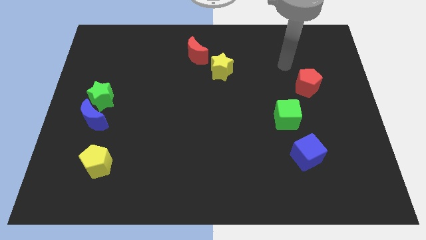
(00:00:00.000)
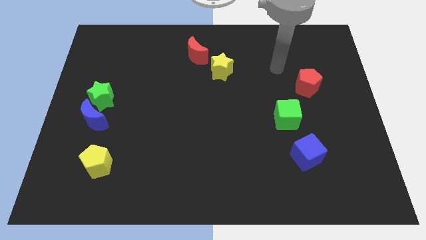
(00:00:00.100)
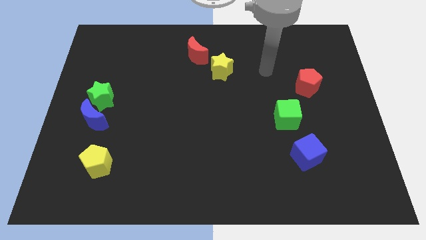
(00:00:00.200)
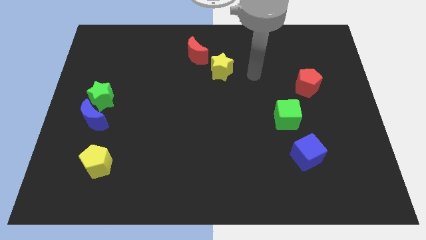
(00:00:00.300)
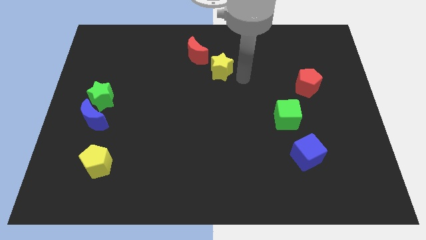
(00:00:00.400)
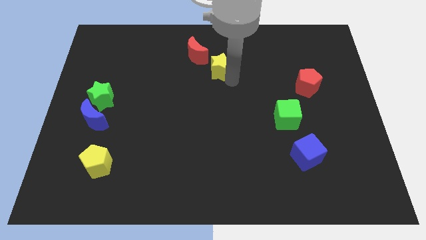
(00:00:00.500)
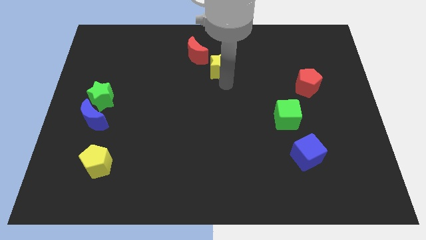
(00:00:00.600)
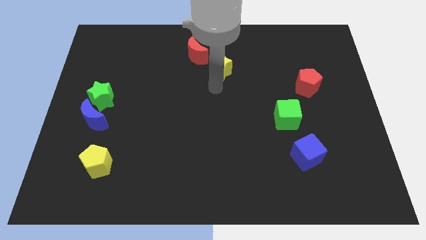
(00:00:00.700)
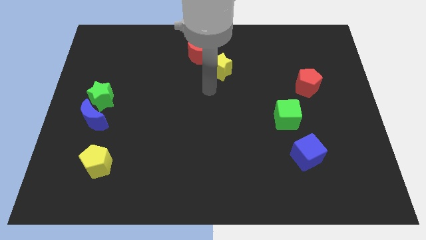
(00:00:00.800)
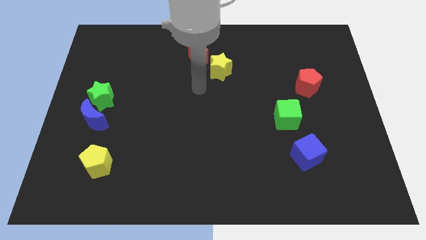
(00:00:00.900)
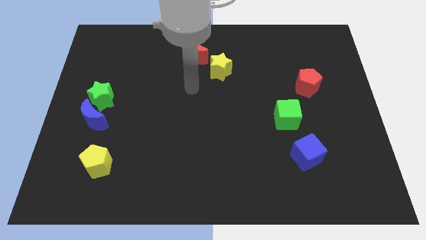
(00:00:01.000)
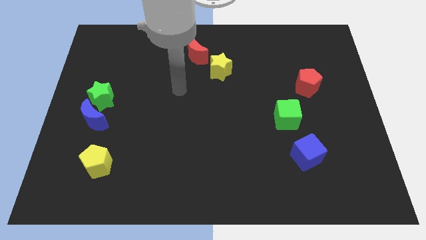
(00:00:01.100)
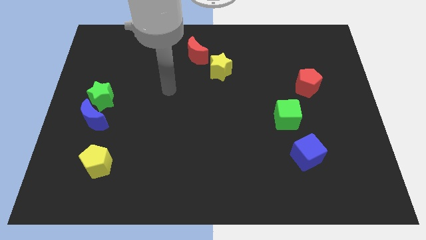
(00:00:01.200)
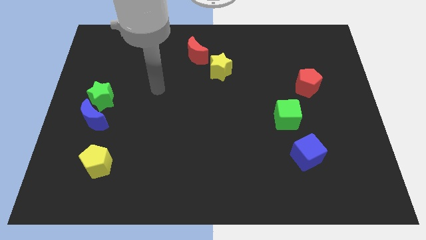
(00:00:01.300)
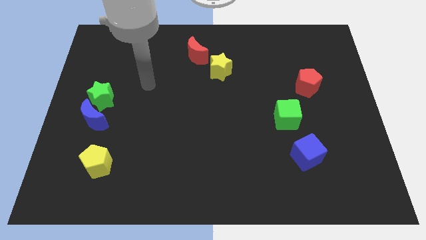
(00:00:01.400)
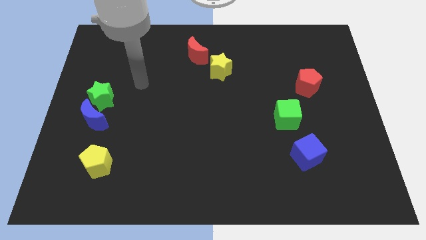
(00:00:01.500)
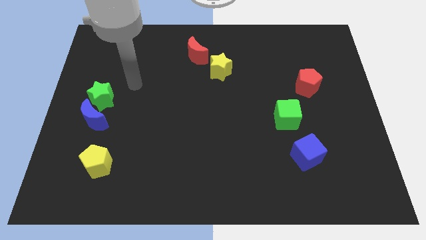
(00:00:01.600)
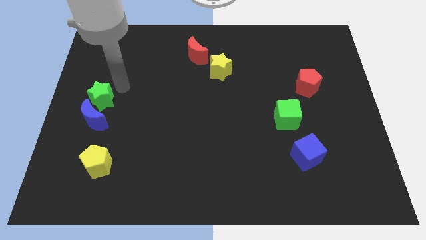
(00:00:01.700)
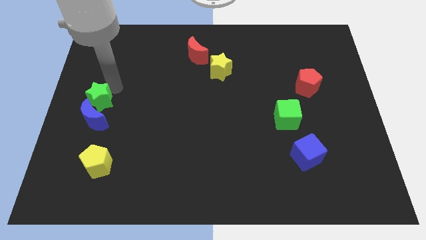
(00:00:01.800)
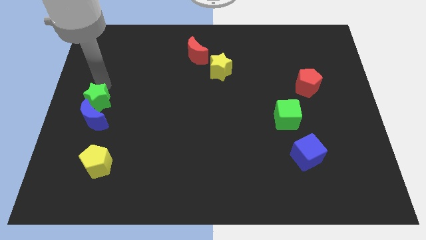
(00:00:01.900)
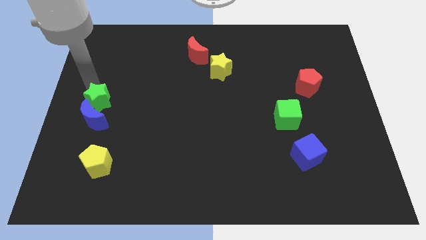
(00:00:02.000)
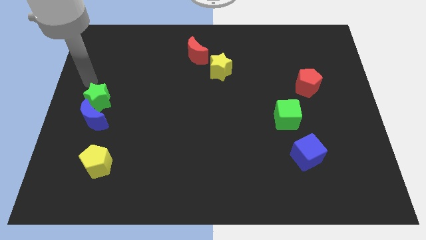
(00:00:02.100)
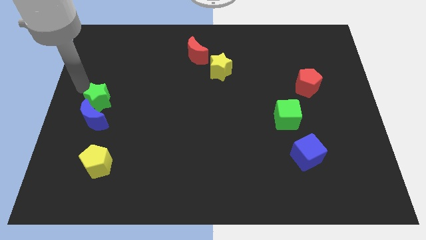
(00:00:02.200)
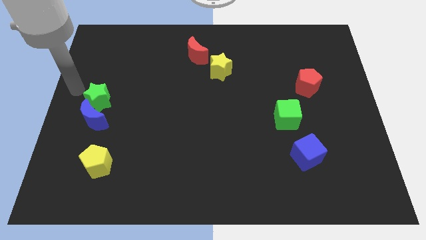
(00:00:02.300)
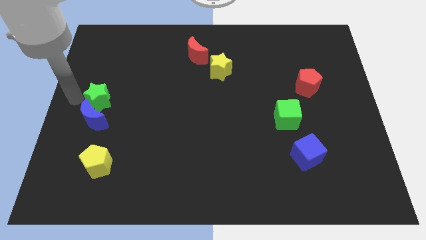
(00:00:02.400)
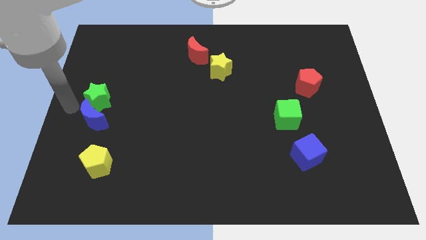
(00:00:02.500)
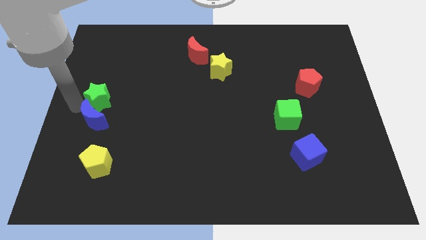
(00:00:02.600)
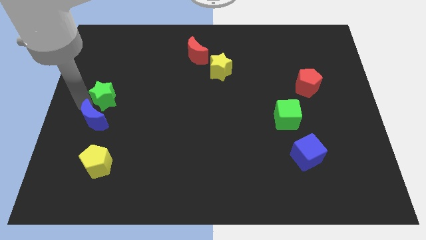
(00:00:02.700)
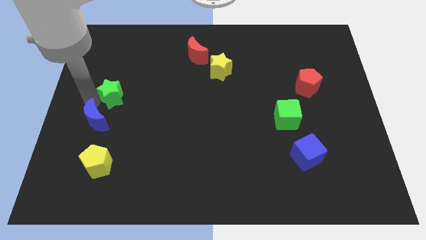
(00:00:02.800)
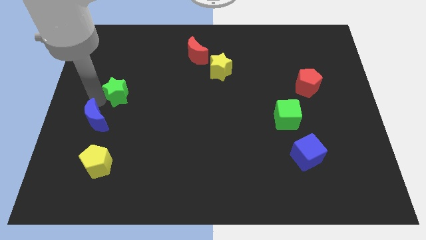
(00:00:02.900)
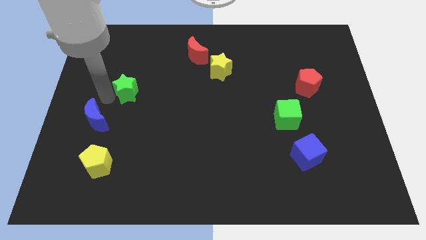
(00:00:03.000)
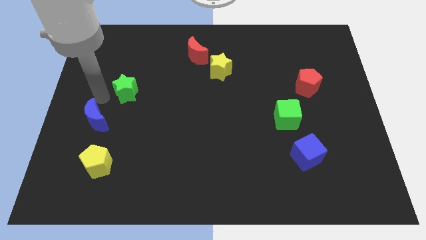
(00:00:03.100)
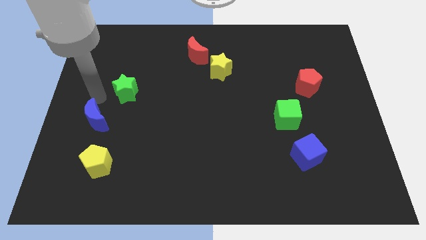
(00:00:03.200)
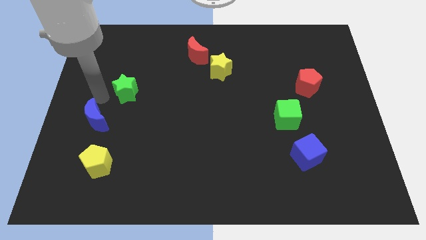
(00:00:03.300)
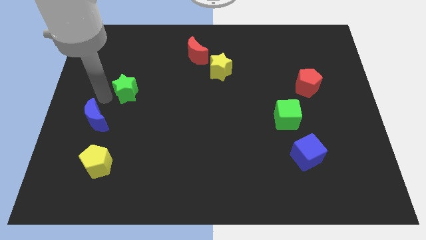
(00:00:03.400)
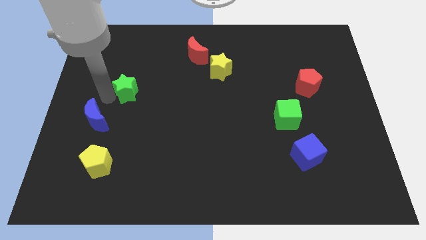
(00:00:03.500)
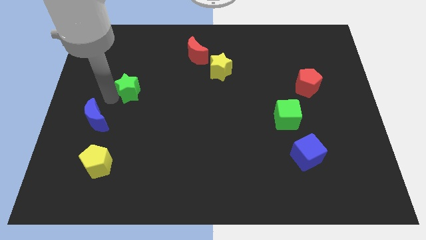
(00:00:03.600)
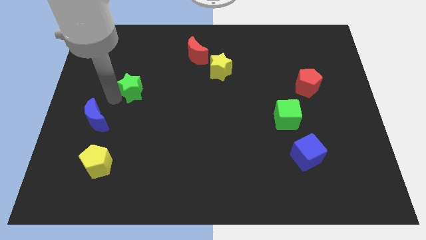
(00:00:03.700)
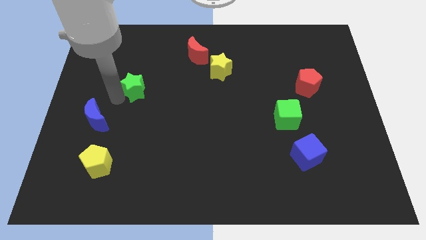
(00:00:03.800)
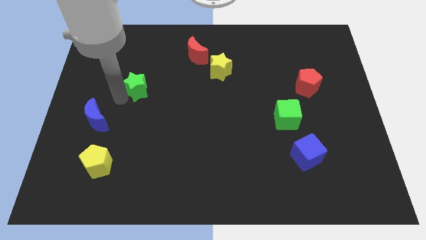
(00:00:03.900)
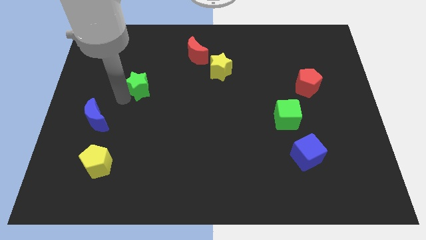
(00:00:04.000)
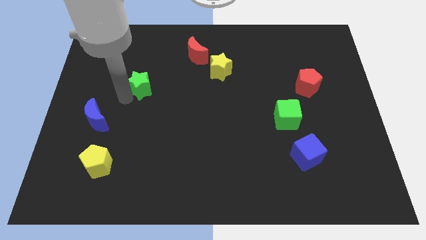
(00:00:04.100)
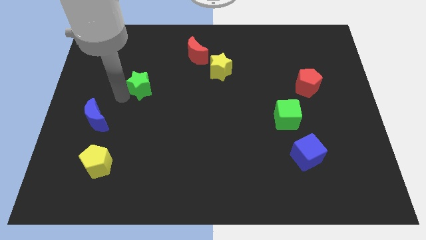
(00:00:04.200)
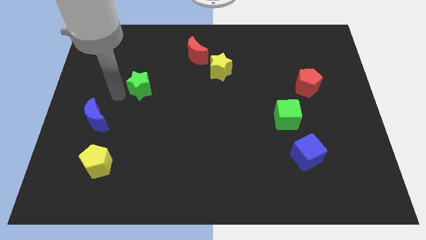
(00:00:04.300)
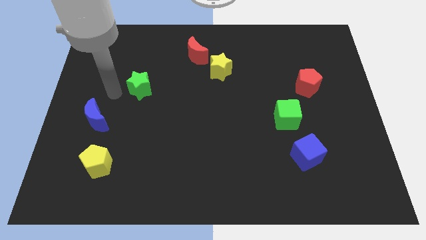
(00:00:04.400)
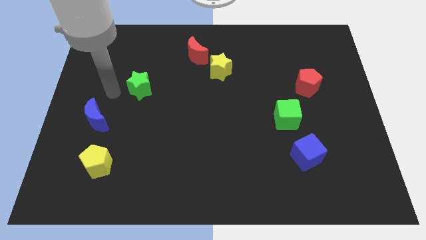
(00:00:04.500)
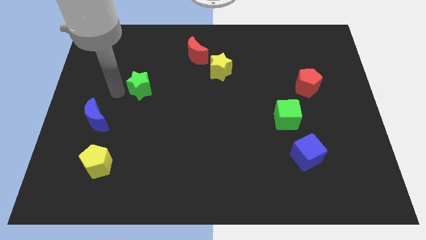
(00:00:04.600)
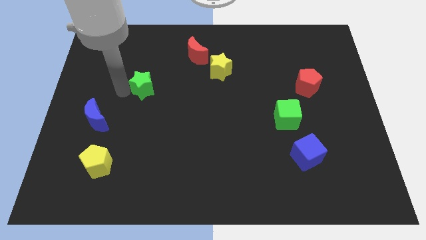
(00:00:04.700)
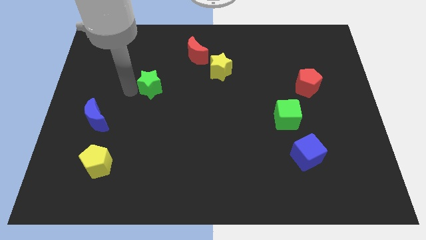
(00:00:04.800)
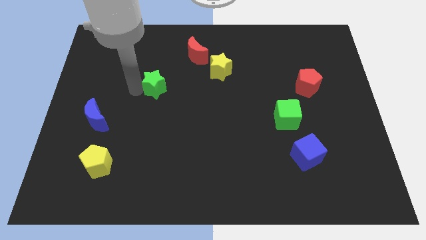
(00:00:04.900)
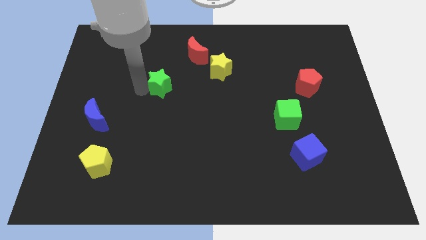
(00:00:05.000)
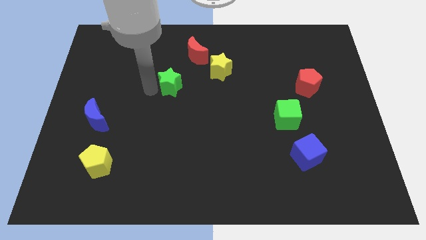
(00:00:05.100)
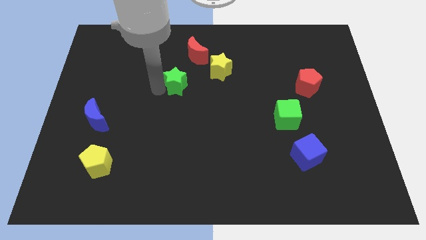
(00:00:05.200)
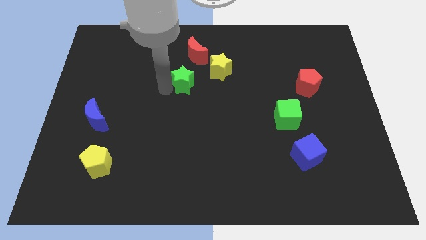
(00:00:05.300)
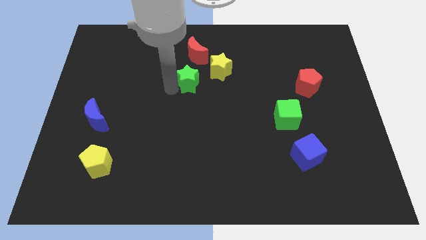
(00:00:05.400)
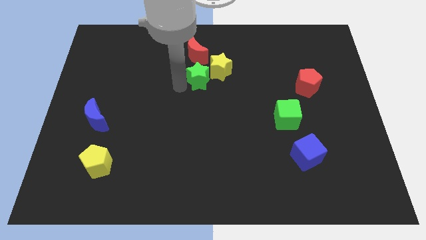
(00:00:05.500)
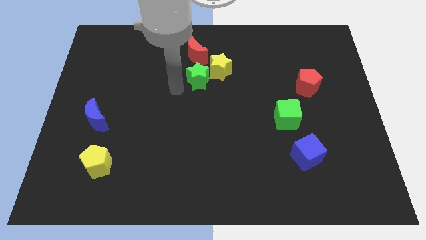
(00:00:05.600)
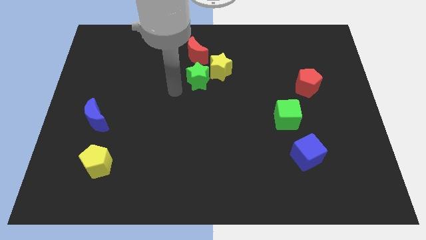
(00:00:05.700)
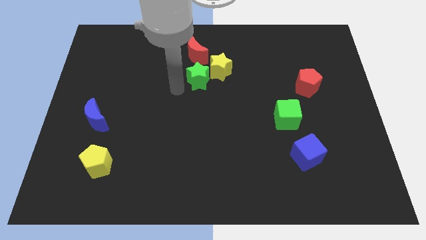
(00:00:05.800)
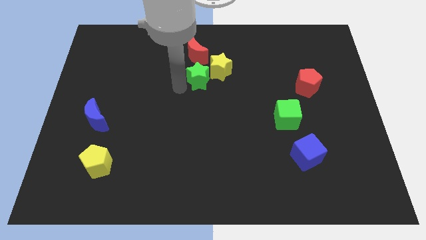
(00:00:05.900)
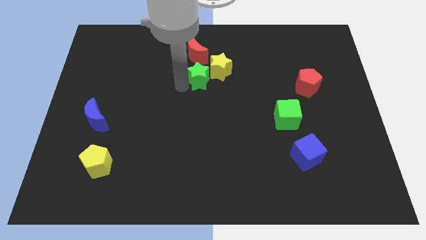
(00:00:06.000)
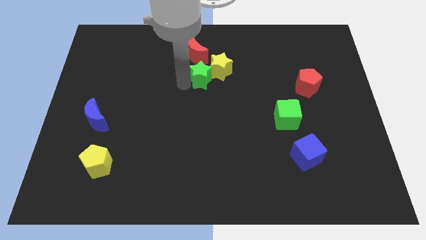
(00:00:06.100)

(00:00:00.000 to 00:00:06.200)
push the green star next to the yellow star
